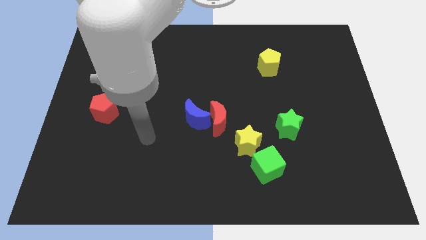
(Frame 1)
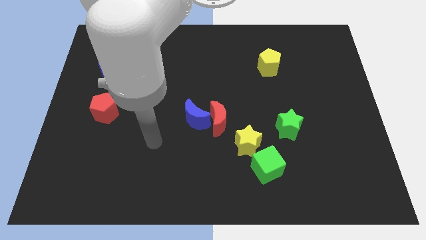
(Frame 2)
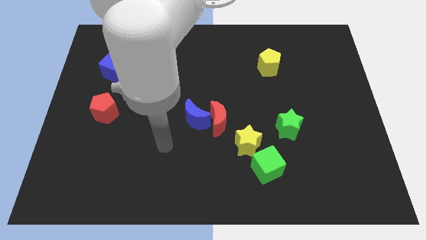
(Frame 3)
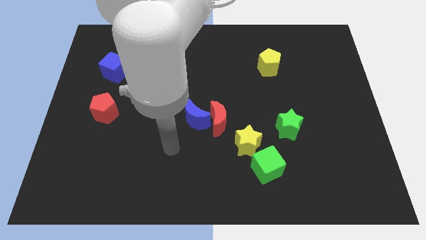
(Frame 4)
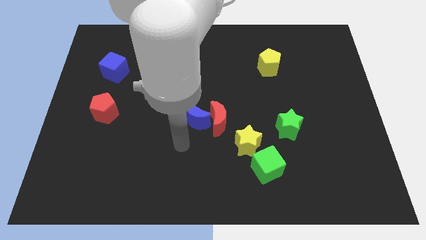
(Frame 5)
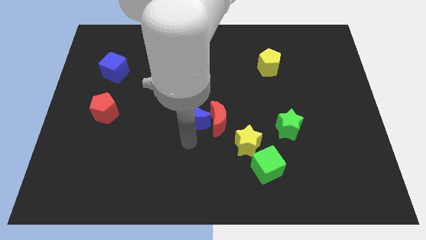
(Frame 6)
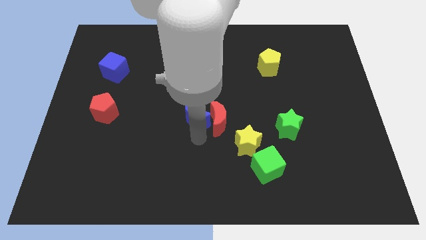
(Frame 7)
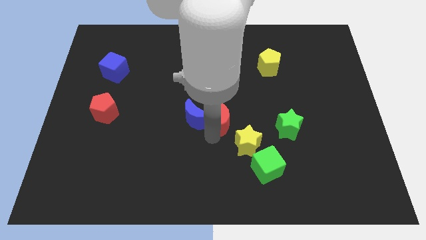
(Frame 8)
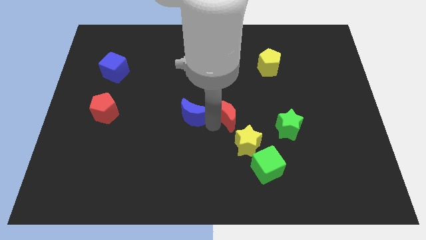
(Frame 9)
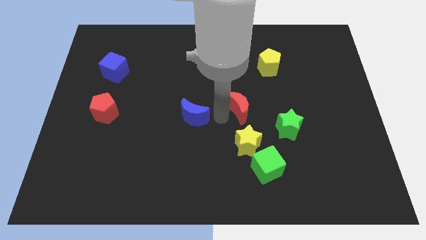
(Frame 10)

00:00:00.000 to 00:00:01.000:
move the blue moon away from the red moon

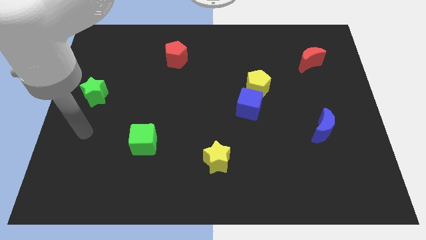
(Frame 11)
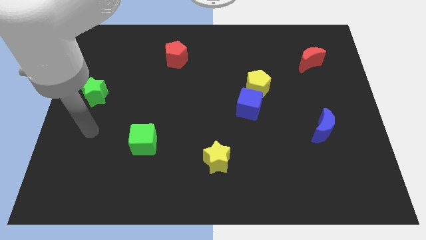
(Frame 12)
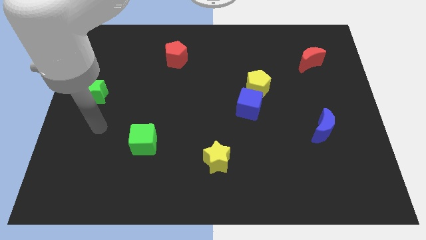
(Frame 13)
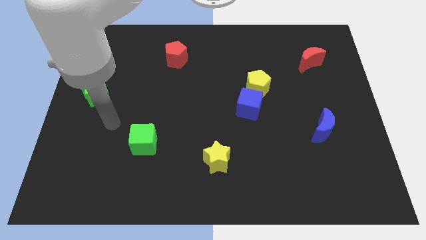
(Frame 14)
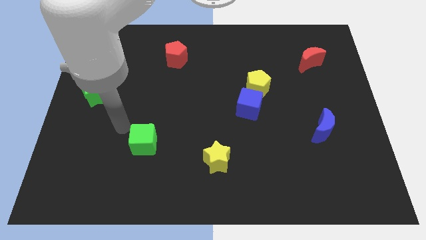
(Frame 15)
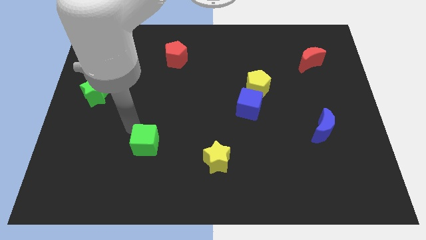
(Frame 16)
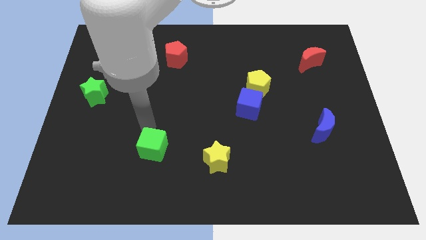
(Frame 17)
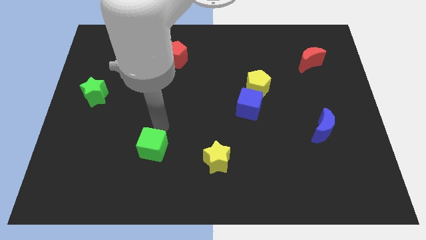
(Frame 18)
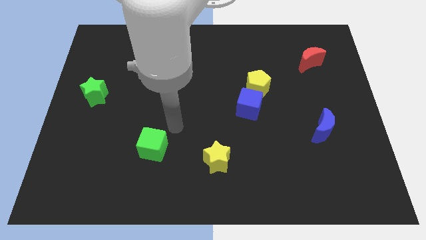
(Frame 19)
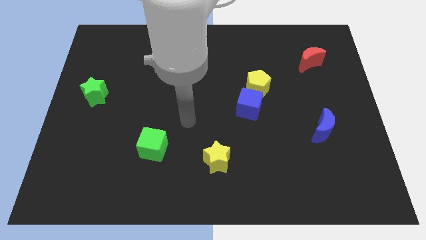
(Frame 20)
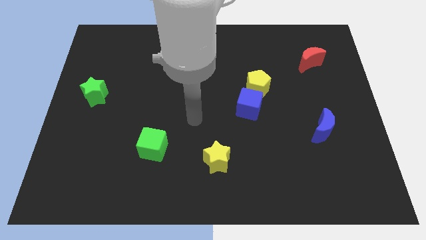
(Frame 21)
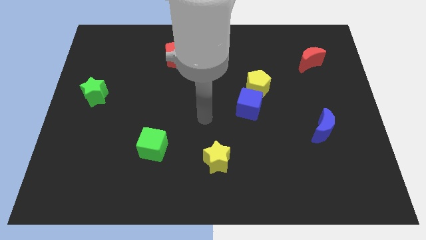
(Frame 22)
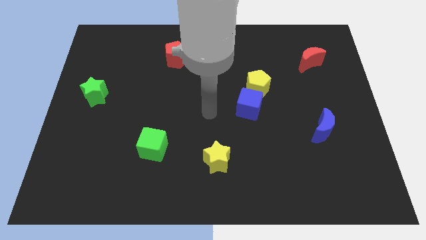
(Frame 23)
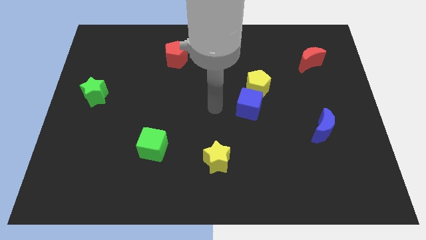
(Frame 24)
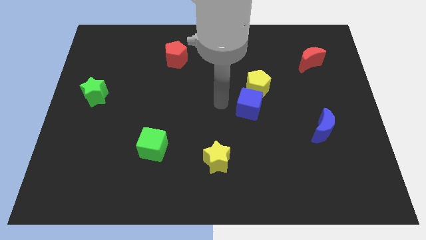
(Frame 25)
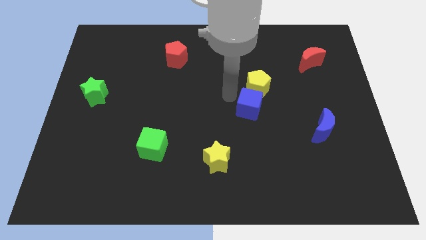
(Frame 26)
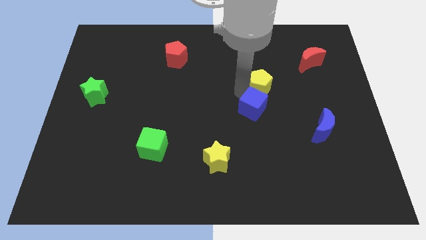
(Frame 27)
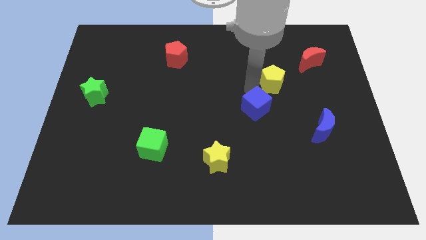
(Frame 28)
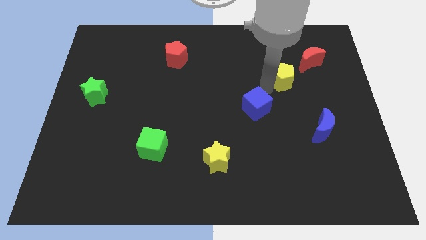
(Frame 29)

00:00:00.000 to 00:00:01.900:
separate the blue cube from the yellow pentagon

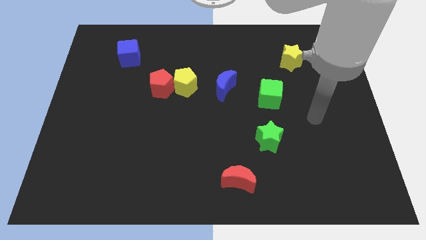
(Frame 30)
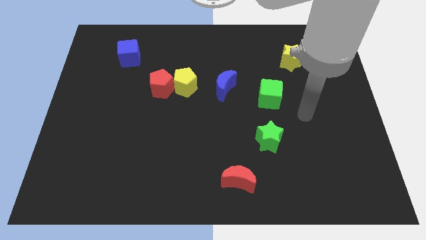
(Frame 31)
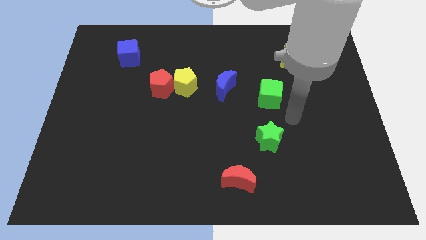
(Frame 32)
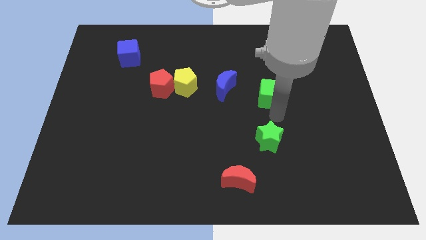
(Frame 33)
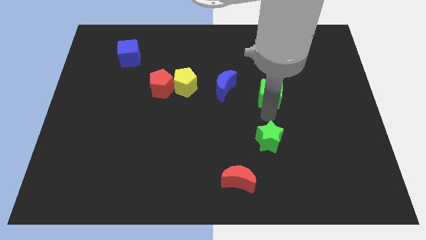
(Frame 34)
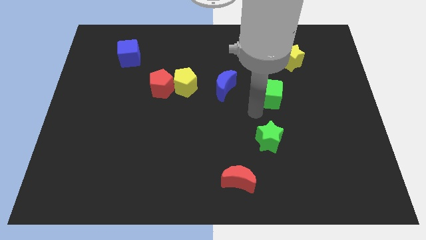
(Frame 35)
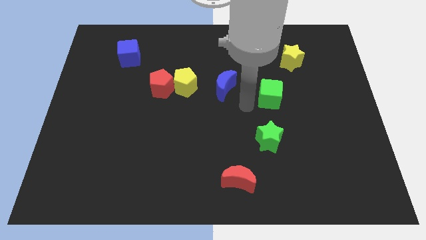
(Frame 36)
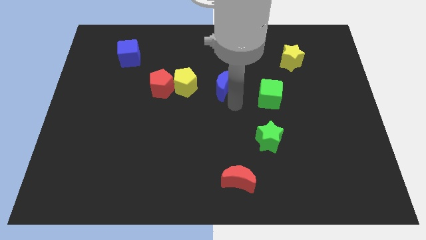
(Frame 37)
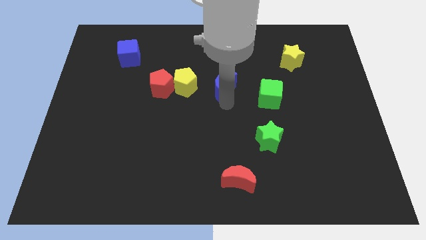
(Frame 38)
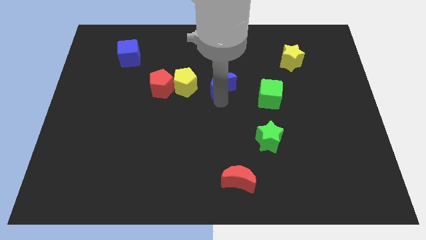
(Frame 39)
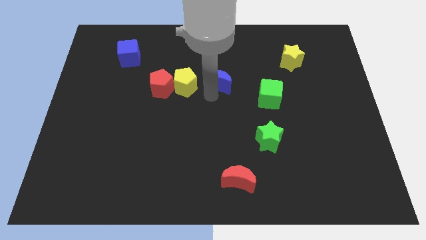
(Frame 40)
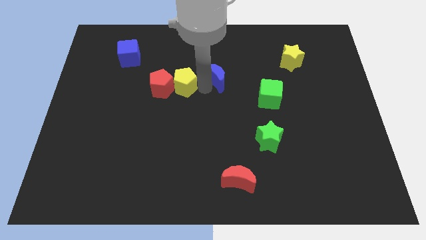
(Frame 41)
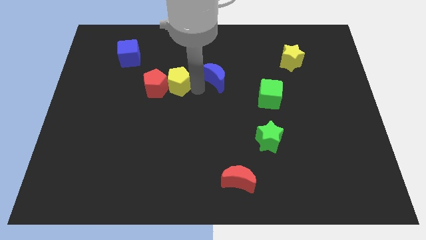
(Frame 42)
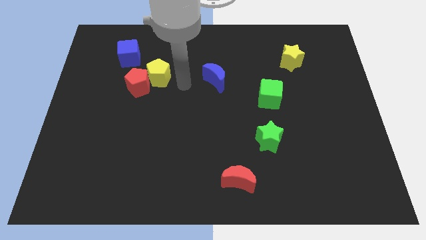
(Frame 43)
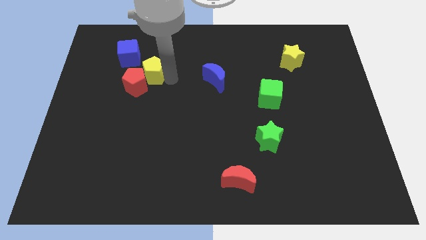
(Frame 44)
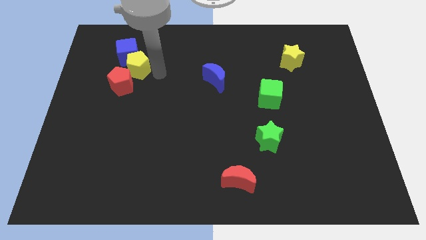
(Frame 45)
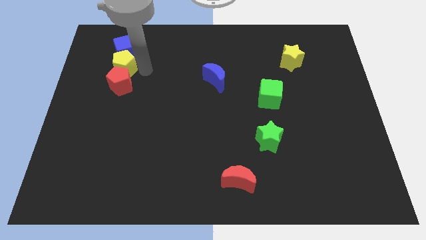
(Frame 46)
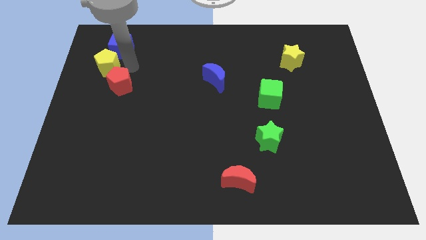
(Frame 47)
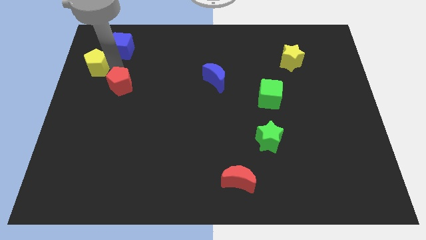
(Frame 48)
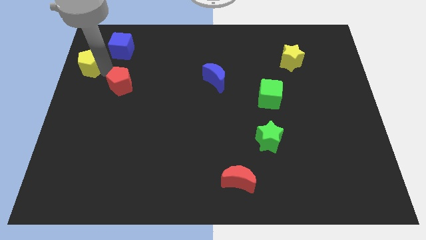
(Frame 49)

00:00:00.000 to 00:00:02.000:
pull the red pentagon apart from the yellow pentagon

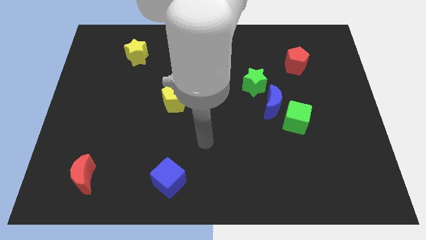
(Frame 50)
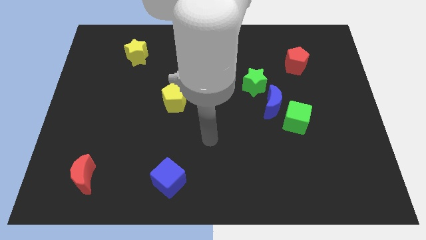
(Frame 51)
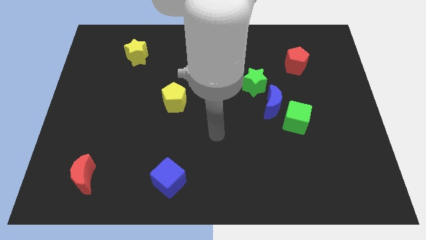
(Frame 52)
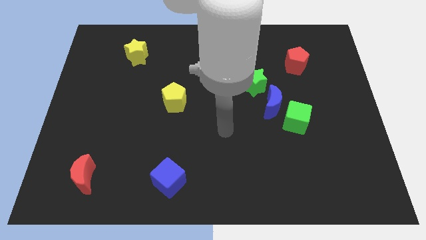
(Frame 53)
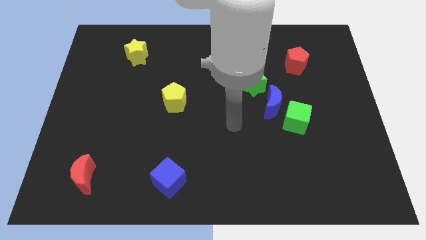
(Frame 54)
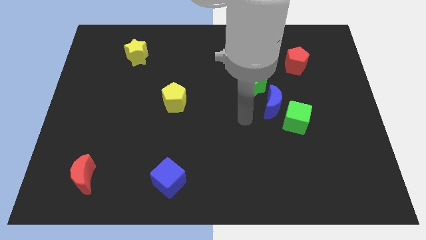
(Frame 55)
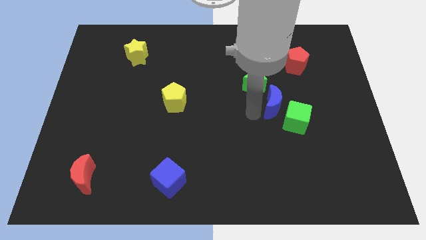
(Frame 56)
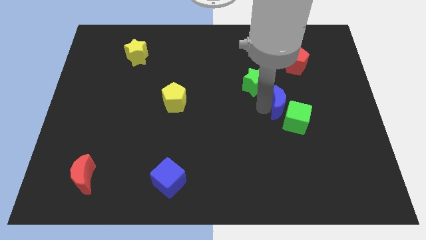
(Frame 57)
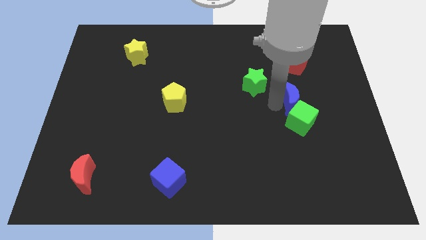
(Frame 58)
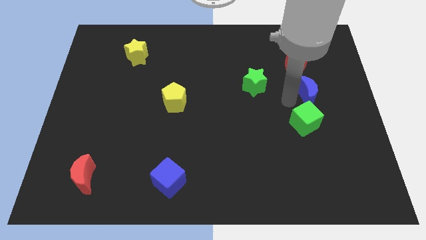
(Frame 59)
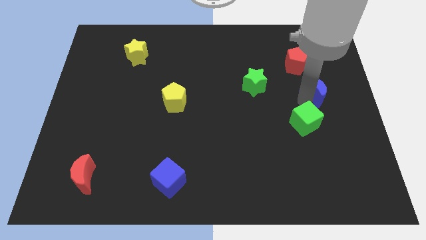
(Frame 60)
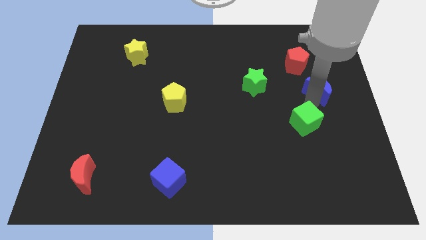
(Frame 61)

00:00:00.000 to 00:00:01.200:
pull the green cube apart from the blue moon

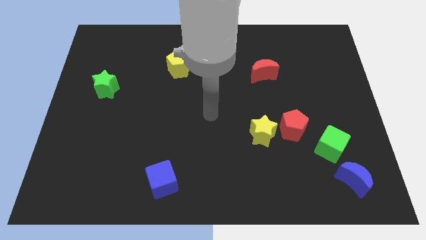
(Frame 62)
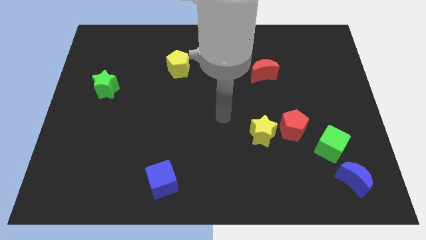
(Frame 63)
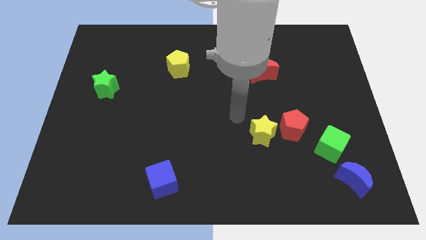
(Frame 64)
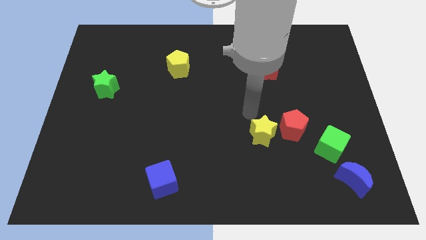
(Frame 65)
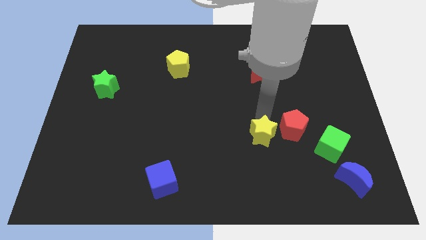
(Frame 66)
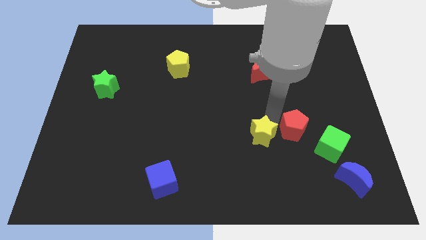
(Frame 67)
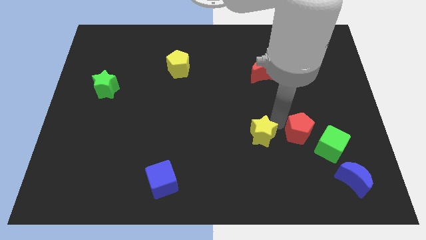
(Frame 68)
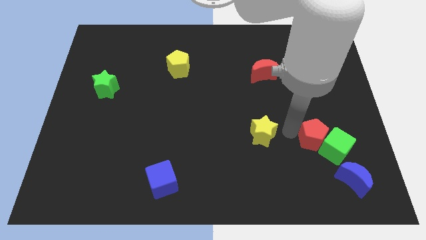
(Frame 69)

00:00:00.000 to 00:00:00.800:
separate the yellow star from the red pentagon

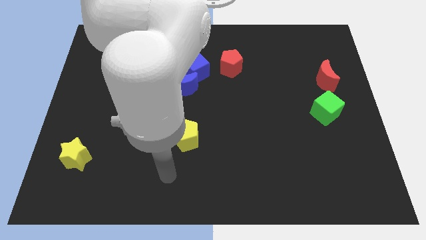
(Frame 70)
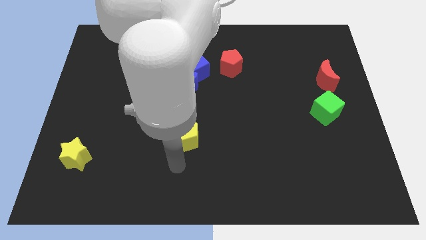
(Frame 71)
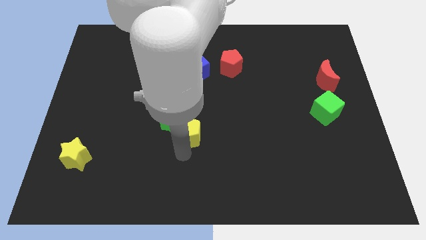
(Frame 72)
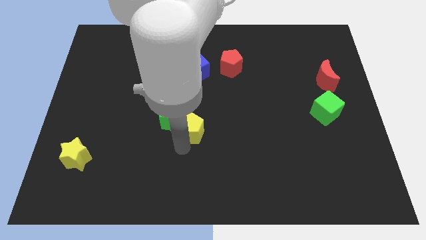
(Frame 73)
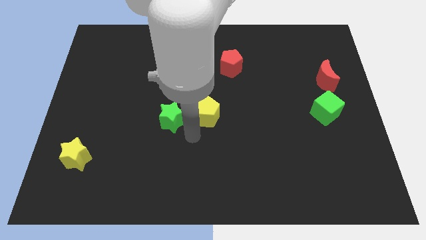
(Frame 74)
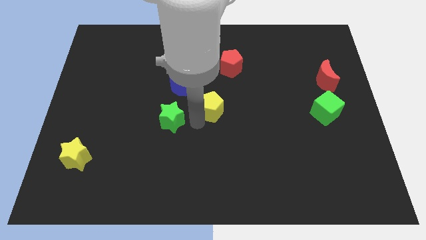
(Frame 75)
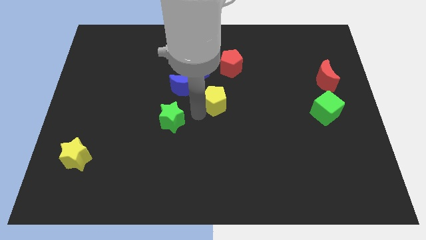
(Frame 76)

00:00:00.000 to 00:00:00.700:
separate the green star from the yellow pentagon

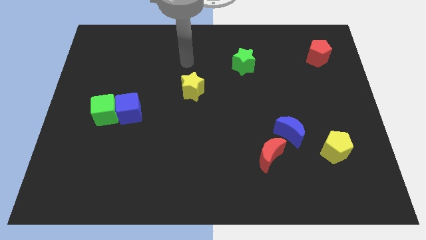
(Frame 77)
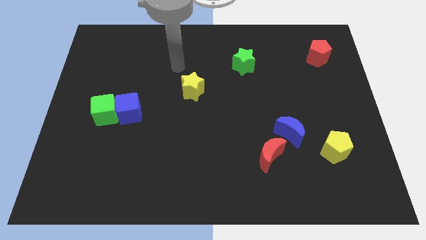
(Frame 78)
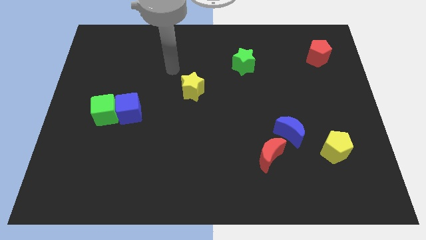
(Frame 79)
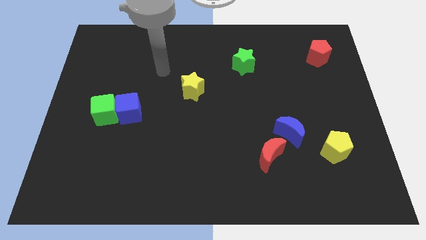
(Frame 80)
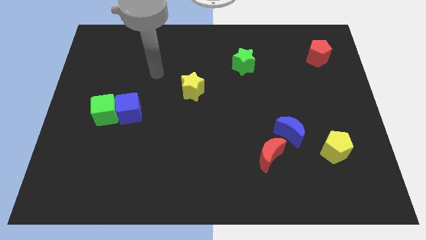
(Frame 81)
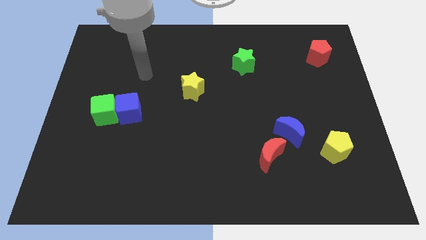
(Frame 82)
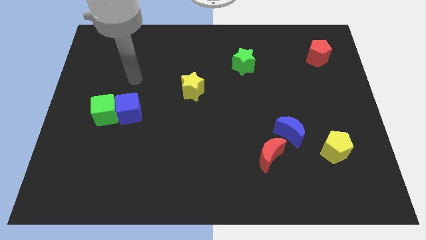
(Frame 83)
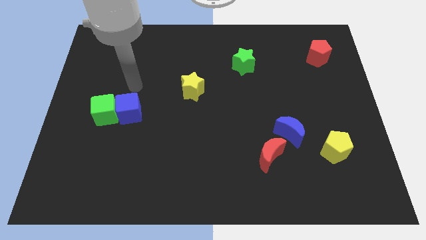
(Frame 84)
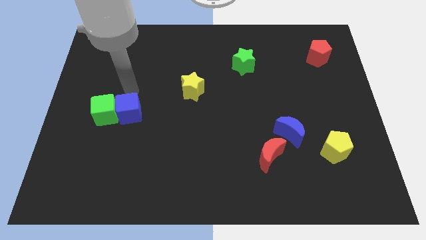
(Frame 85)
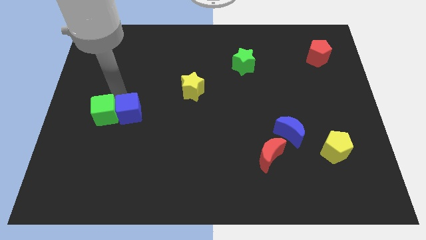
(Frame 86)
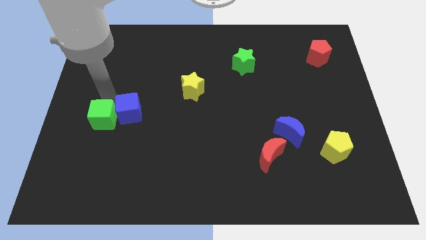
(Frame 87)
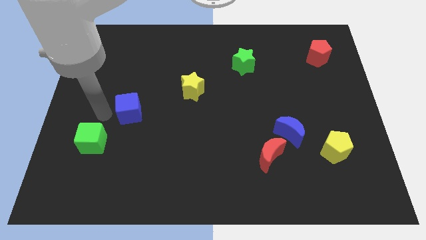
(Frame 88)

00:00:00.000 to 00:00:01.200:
pull the blue cube apart from the green cube

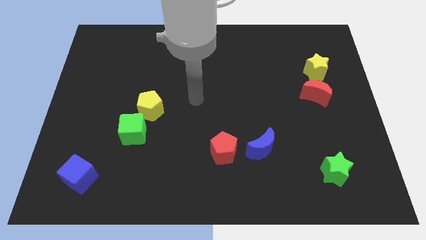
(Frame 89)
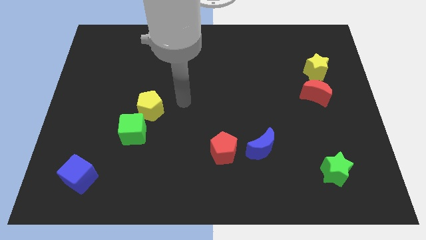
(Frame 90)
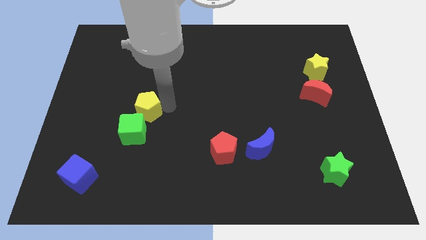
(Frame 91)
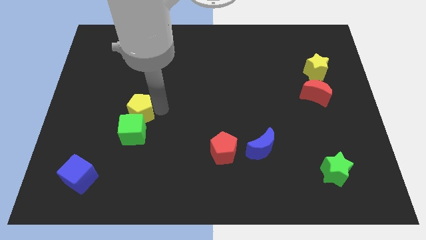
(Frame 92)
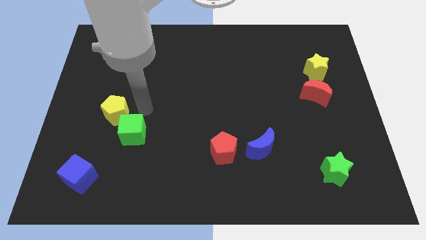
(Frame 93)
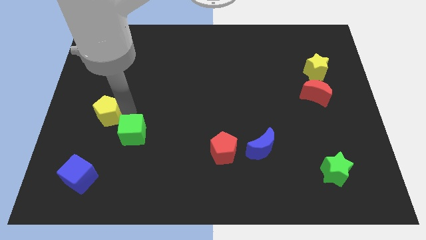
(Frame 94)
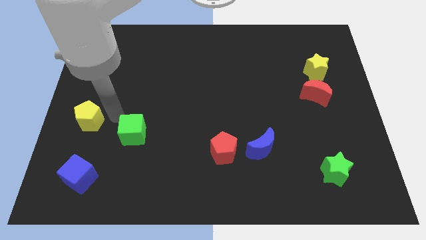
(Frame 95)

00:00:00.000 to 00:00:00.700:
pull the green cube apart from the yellow pentagon
